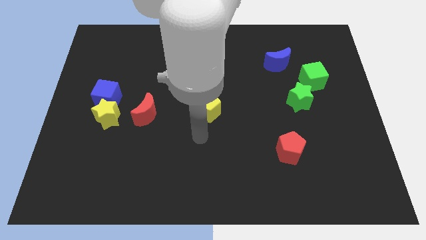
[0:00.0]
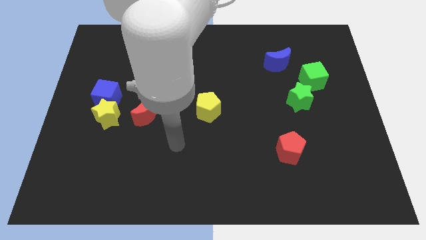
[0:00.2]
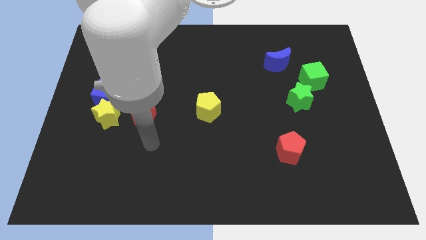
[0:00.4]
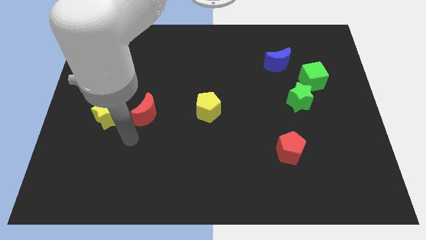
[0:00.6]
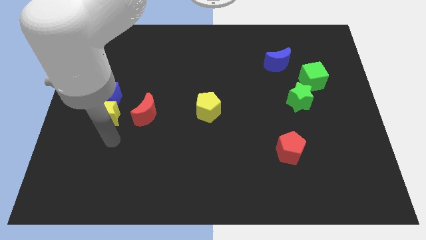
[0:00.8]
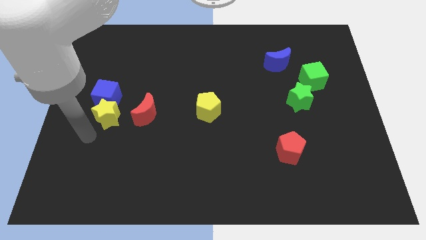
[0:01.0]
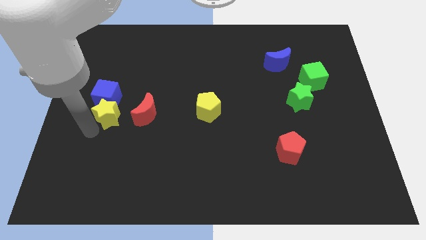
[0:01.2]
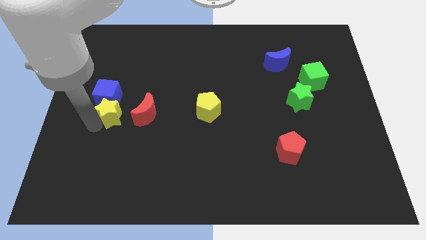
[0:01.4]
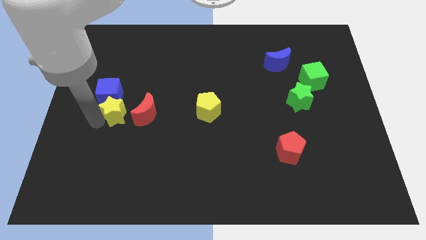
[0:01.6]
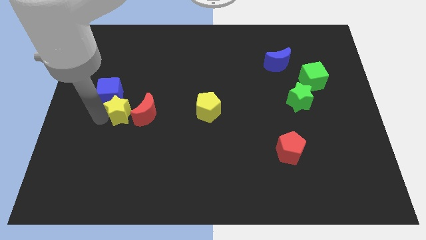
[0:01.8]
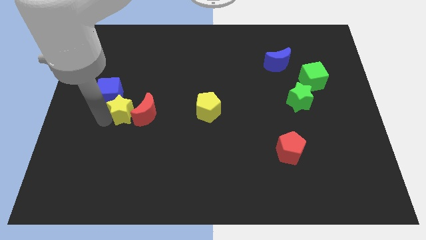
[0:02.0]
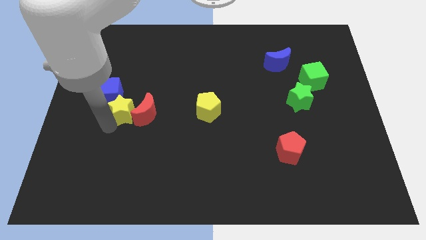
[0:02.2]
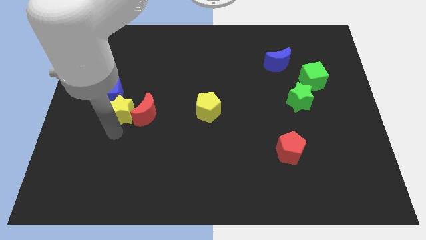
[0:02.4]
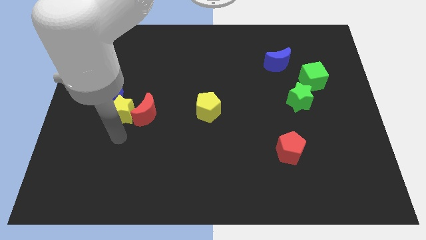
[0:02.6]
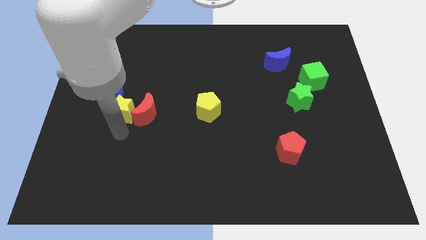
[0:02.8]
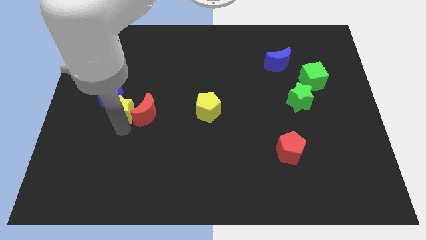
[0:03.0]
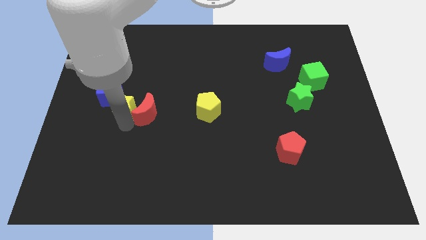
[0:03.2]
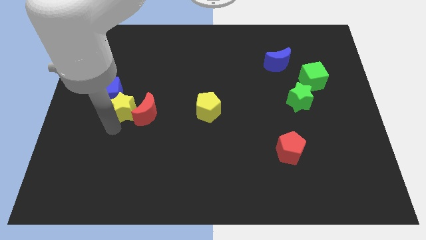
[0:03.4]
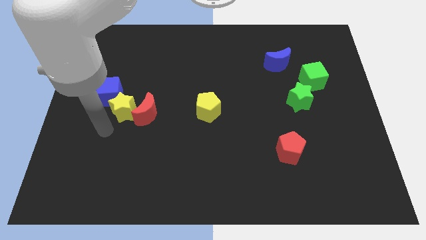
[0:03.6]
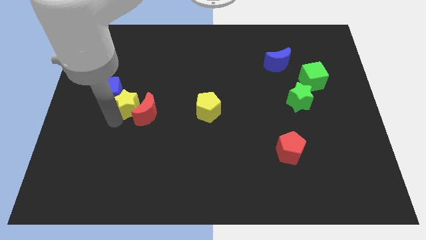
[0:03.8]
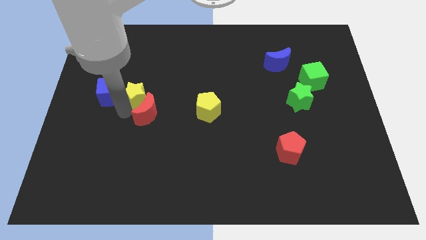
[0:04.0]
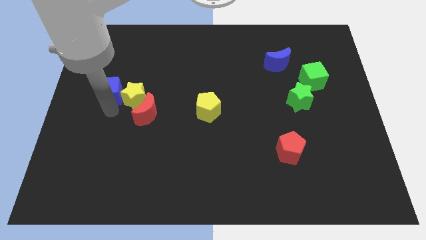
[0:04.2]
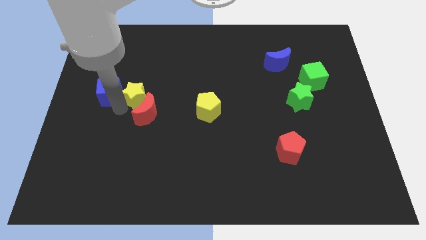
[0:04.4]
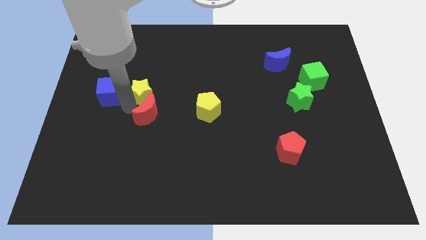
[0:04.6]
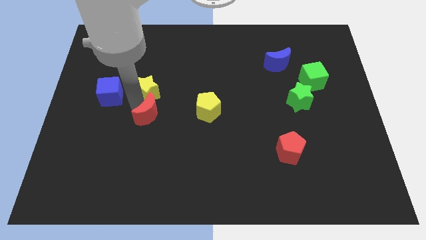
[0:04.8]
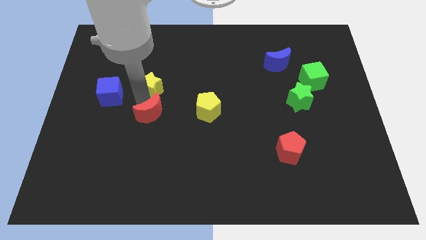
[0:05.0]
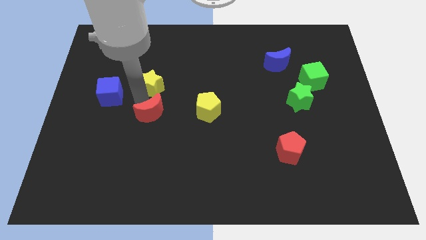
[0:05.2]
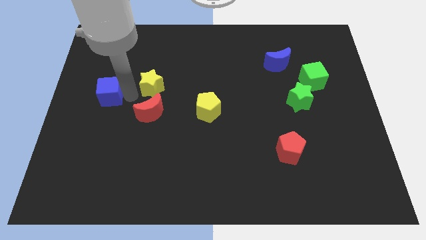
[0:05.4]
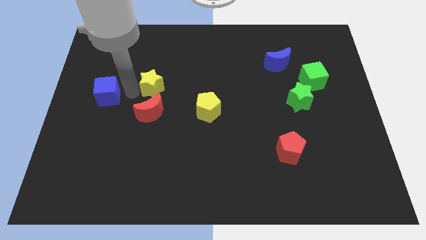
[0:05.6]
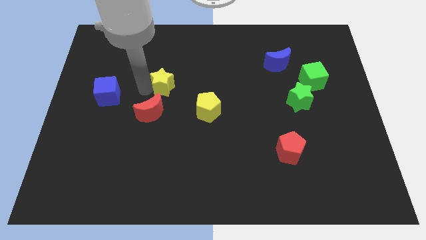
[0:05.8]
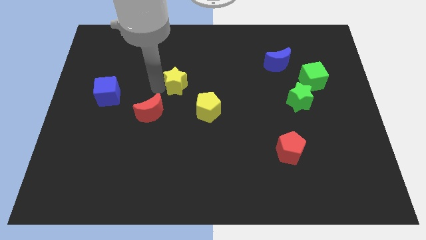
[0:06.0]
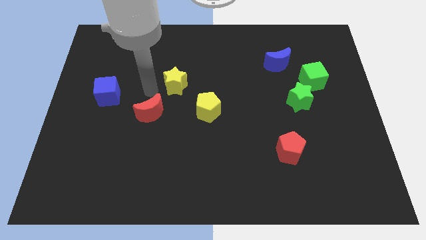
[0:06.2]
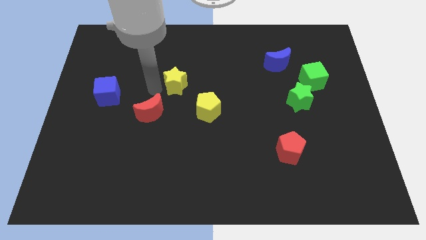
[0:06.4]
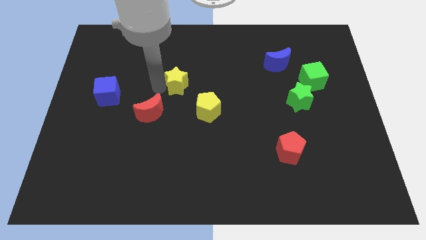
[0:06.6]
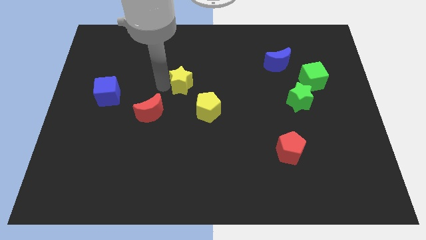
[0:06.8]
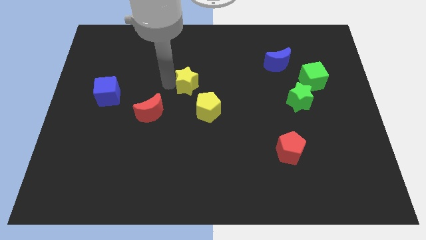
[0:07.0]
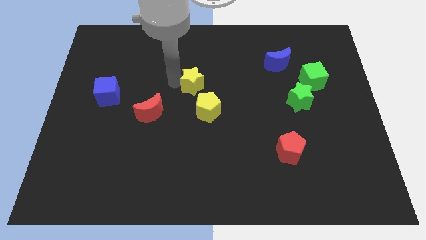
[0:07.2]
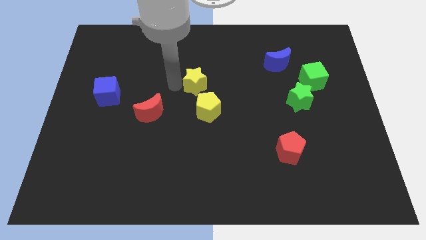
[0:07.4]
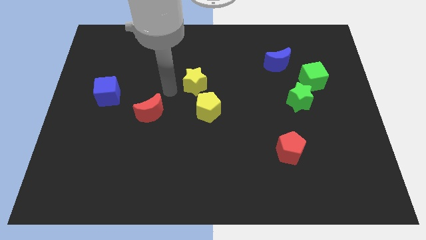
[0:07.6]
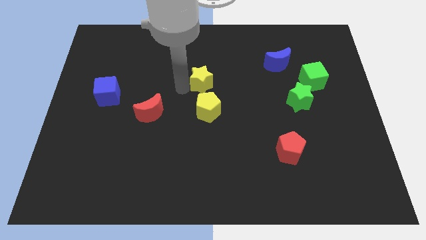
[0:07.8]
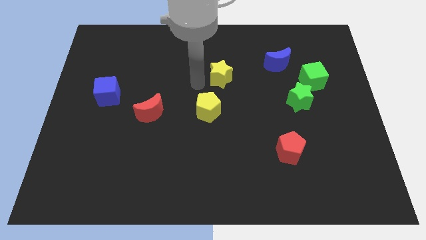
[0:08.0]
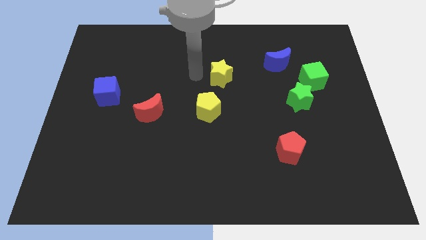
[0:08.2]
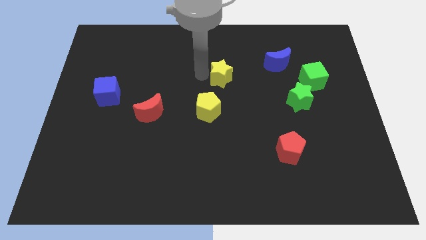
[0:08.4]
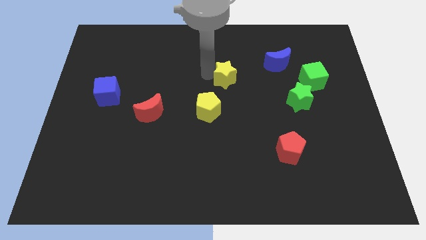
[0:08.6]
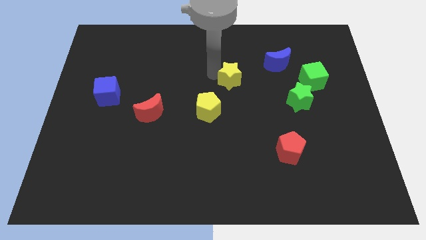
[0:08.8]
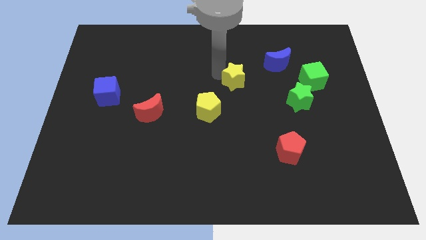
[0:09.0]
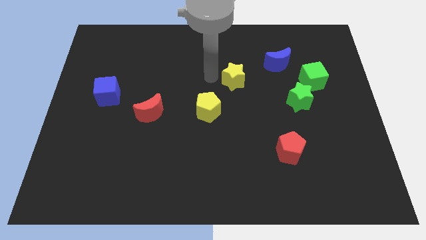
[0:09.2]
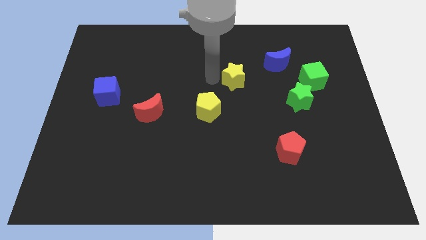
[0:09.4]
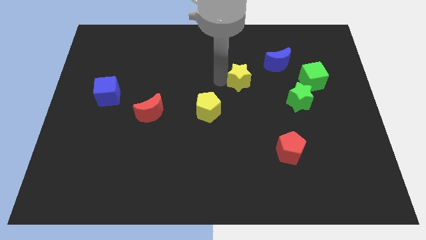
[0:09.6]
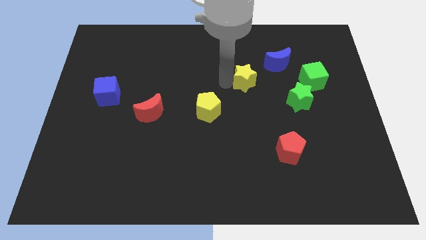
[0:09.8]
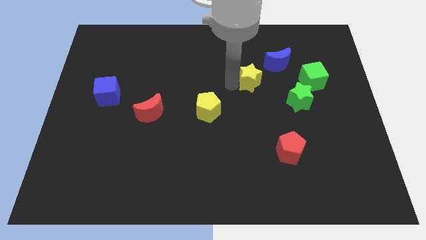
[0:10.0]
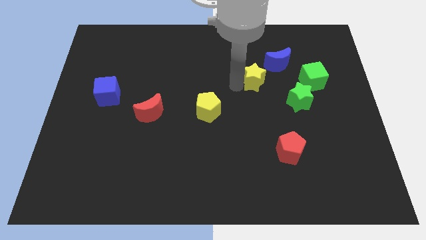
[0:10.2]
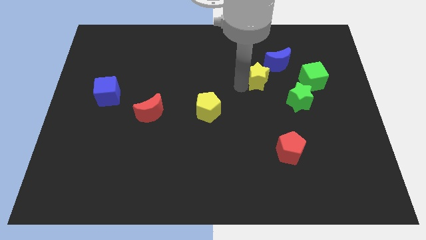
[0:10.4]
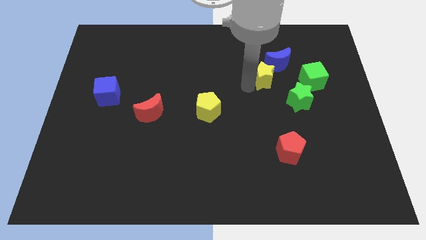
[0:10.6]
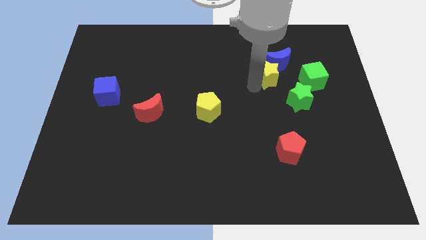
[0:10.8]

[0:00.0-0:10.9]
move the yellow star towards the blue moon

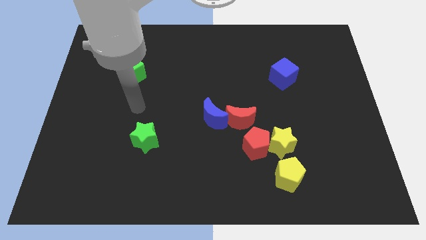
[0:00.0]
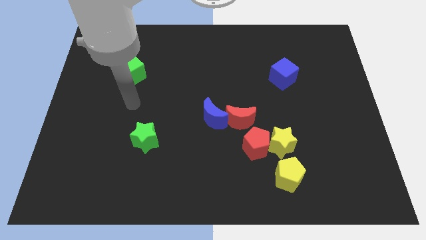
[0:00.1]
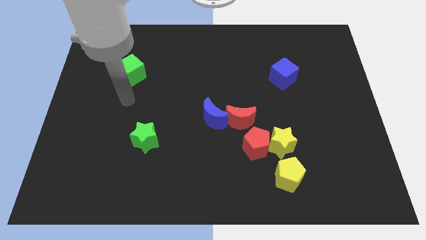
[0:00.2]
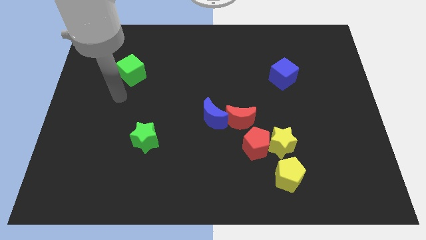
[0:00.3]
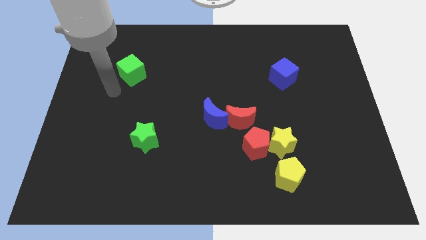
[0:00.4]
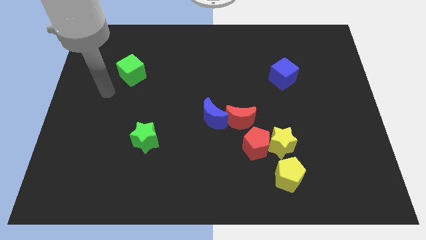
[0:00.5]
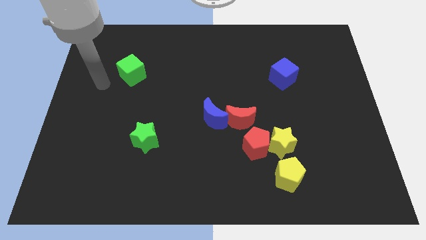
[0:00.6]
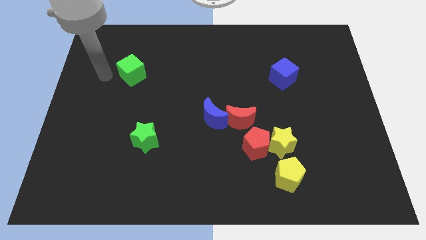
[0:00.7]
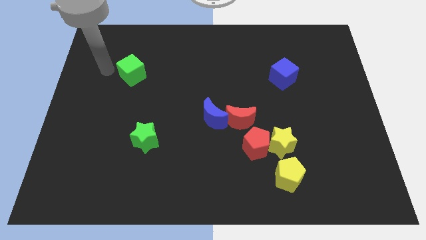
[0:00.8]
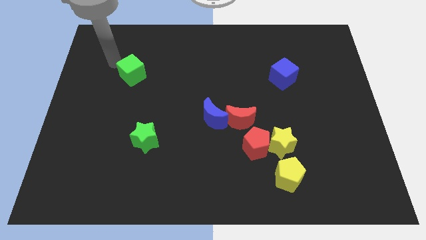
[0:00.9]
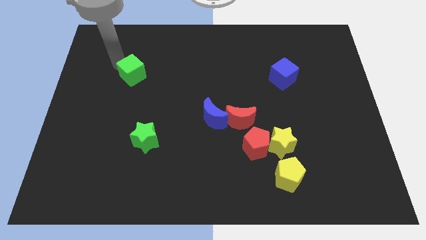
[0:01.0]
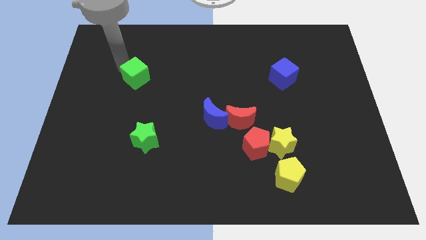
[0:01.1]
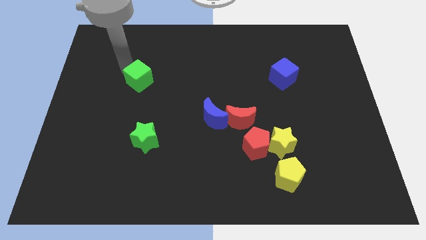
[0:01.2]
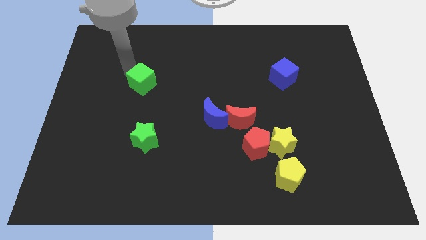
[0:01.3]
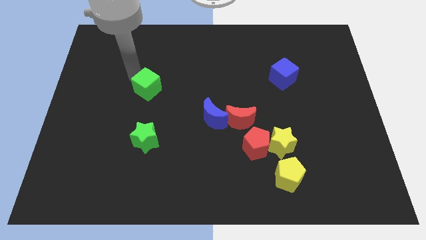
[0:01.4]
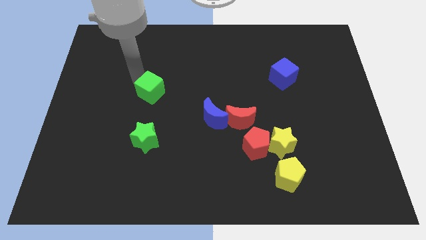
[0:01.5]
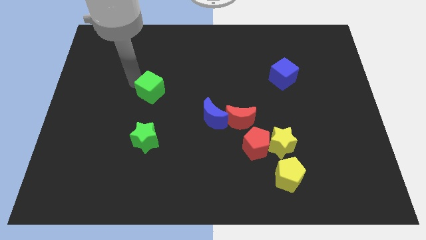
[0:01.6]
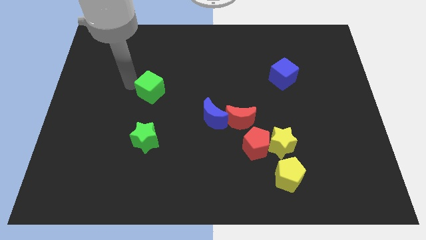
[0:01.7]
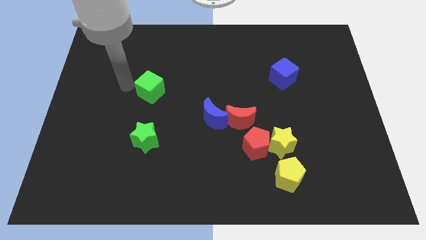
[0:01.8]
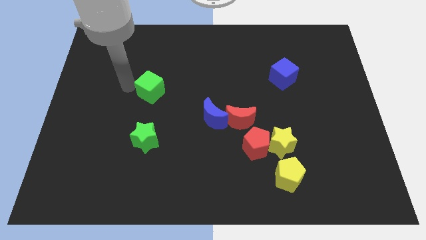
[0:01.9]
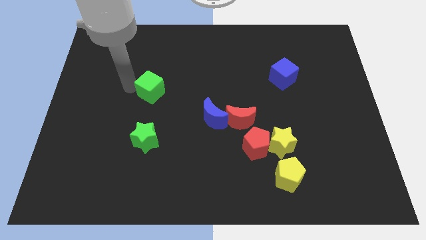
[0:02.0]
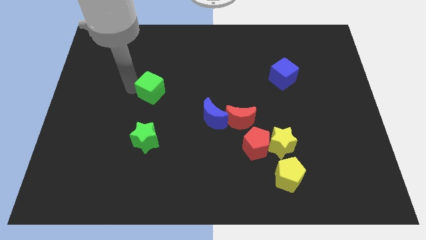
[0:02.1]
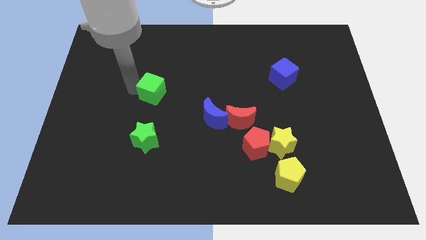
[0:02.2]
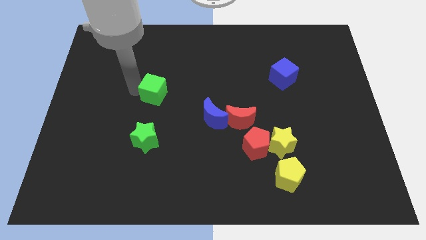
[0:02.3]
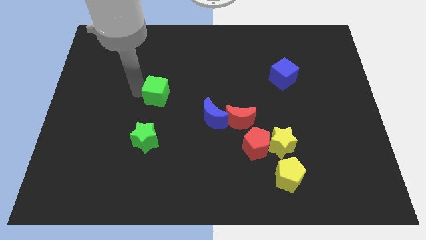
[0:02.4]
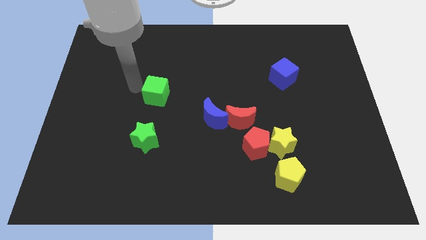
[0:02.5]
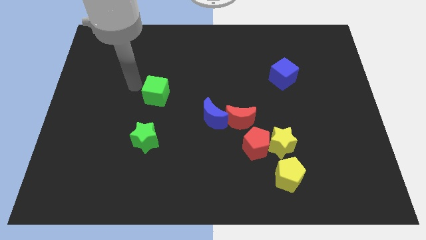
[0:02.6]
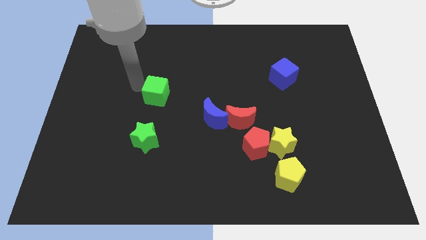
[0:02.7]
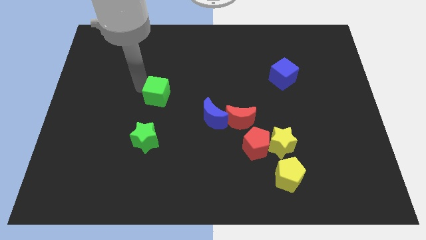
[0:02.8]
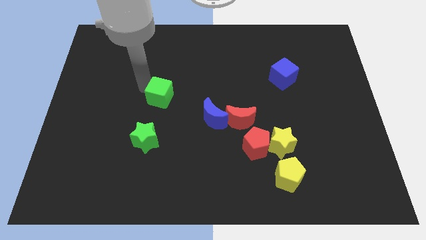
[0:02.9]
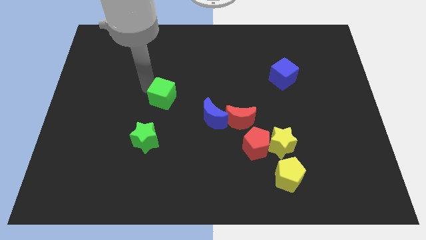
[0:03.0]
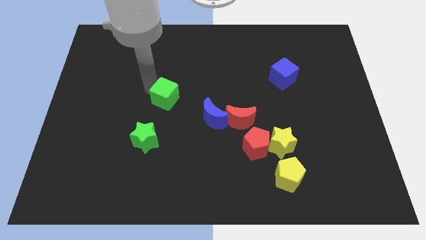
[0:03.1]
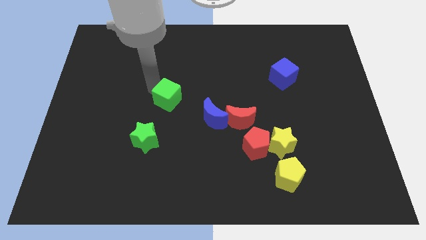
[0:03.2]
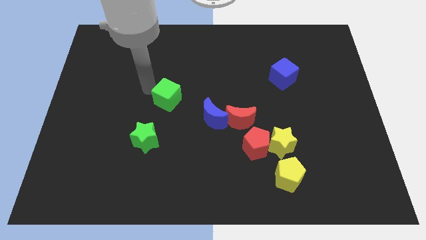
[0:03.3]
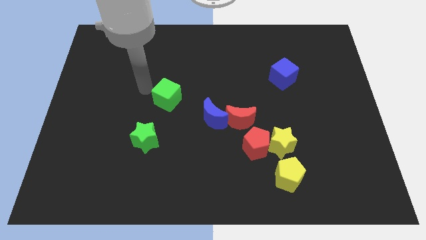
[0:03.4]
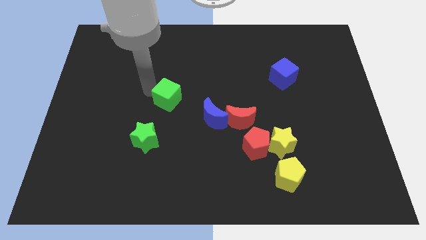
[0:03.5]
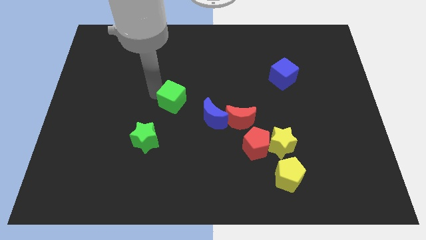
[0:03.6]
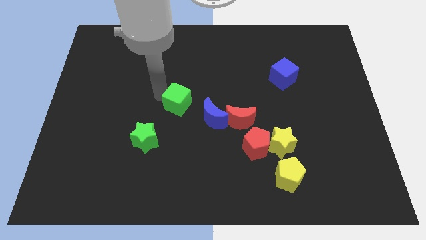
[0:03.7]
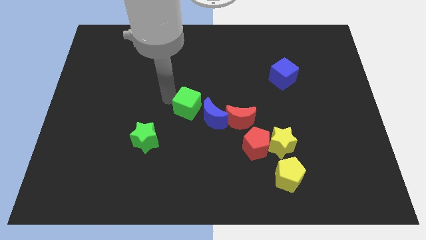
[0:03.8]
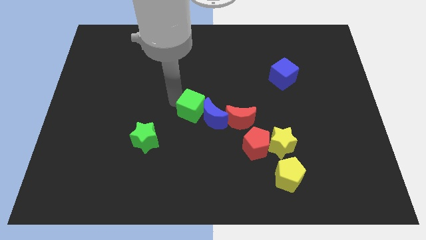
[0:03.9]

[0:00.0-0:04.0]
put the green cube next to the blue moon
